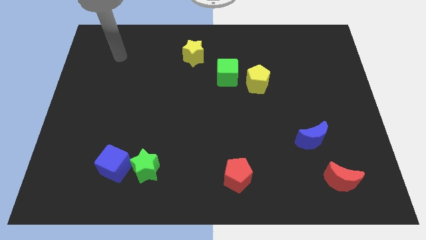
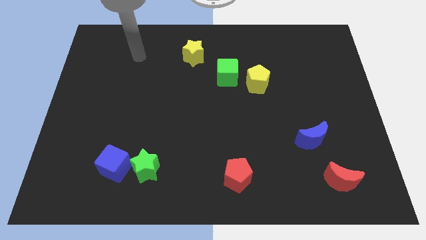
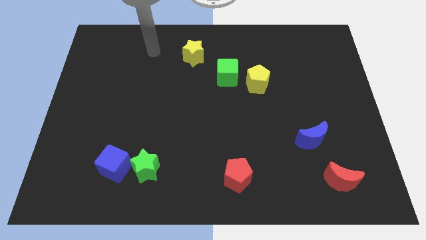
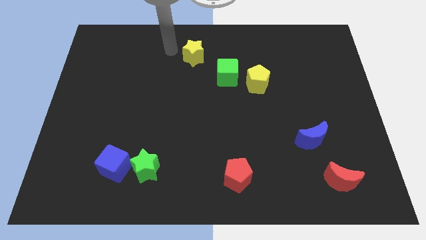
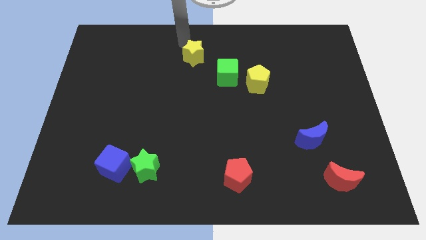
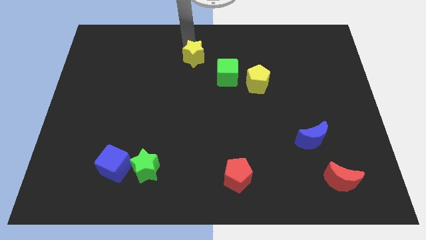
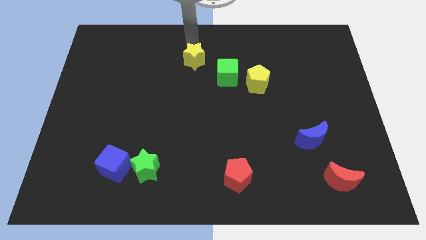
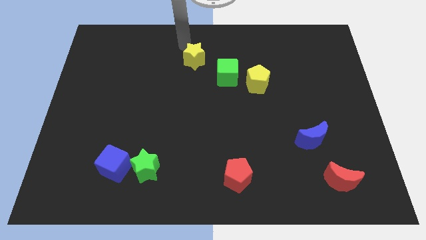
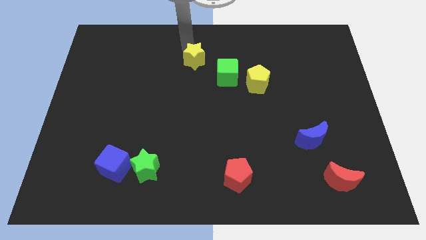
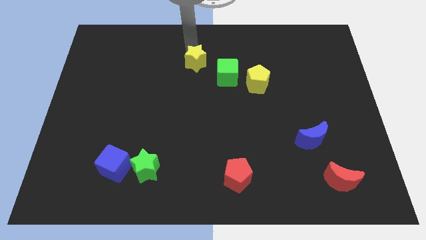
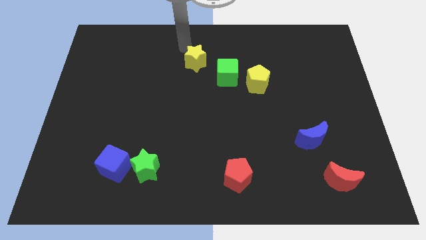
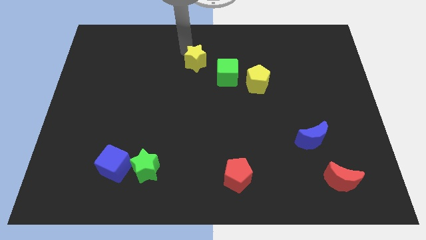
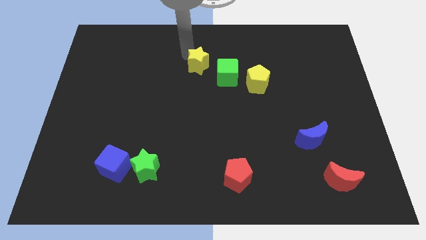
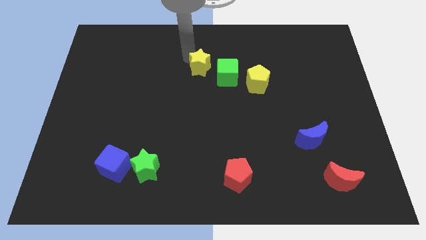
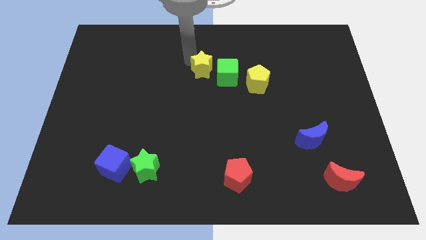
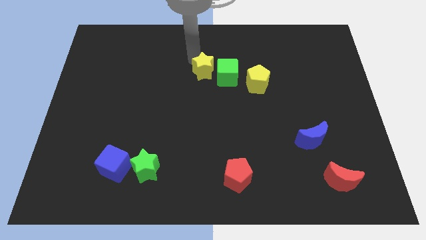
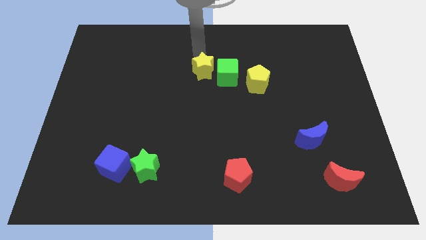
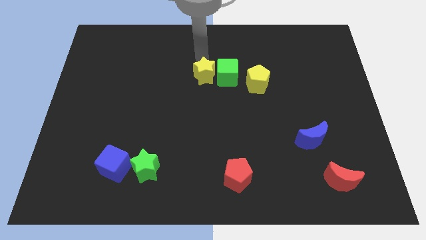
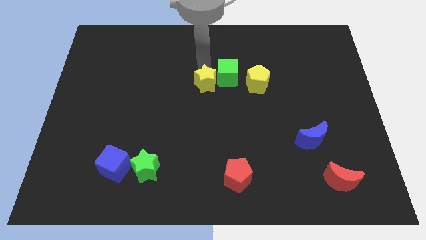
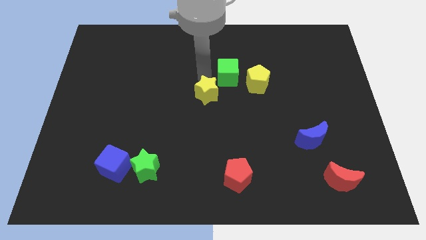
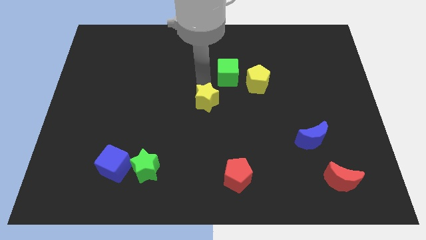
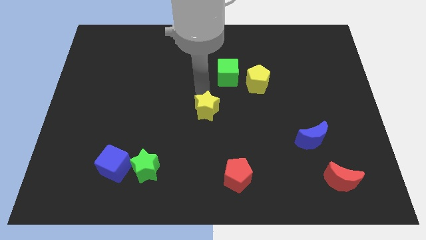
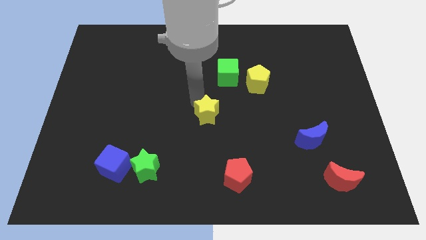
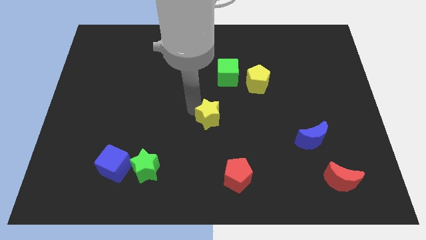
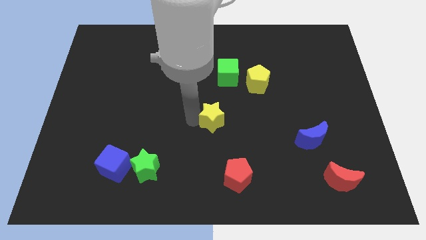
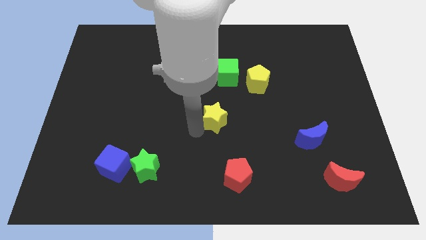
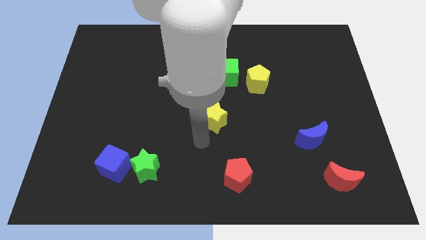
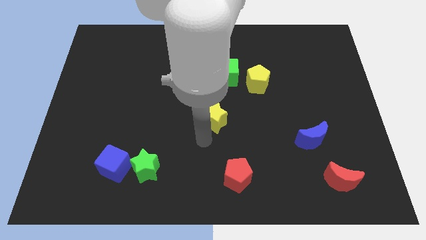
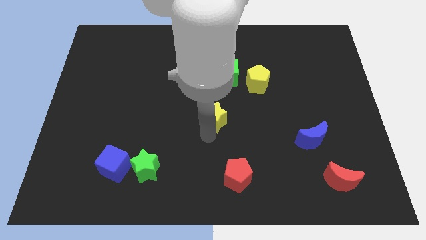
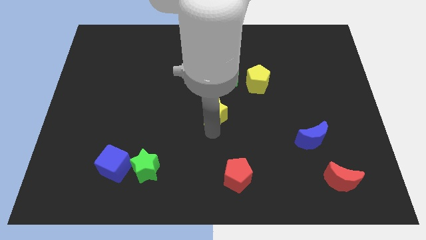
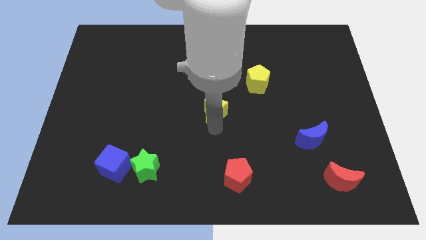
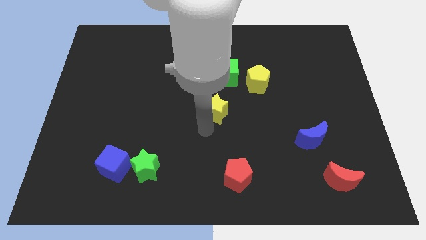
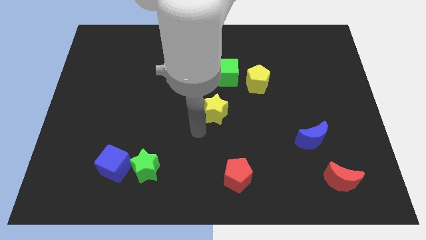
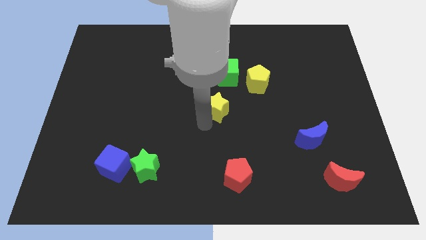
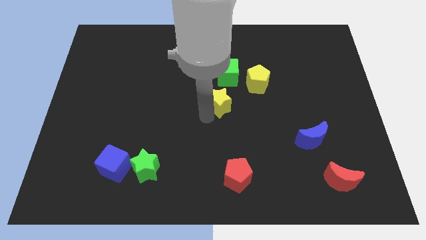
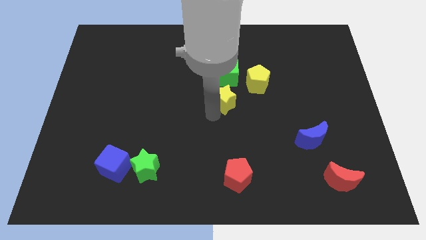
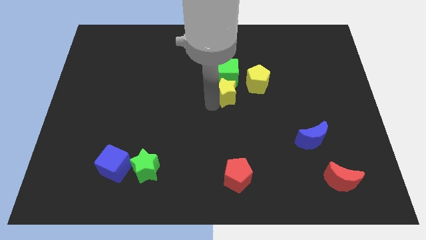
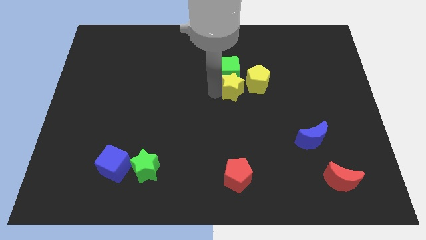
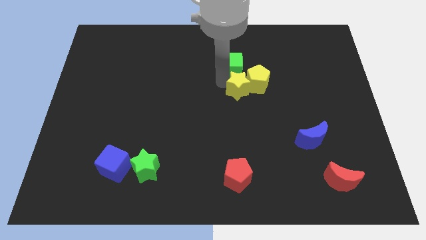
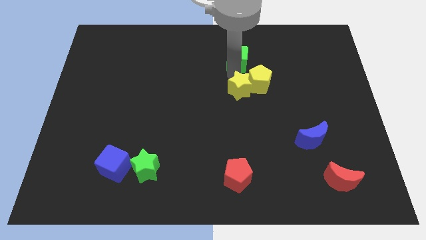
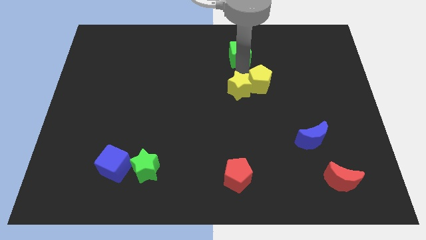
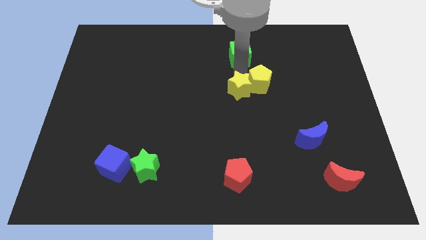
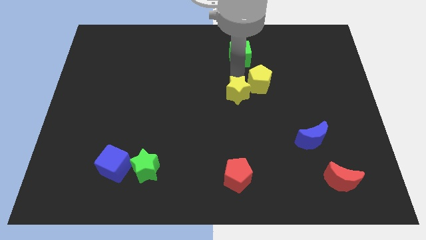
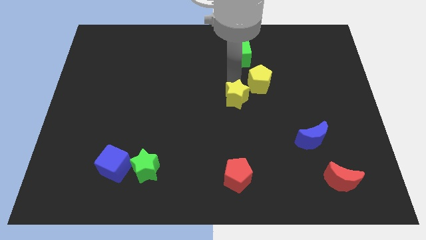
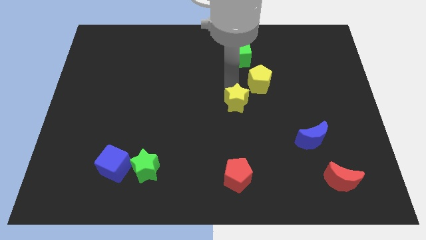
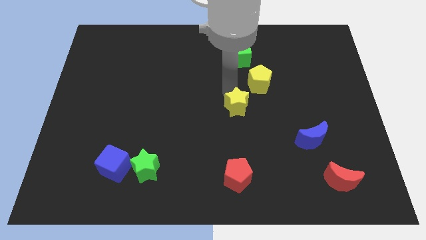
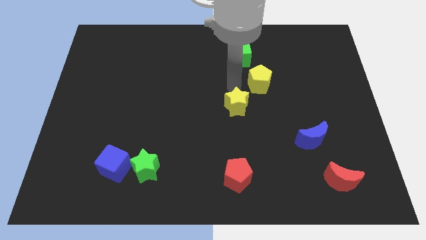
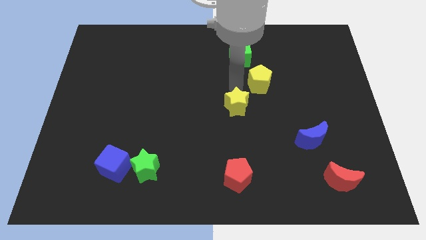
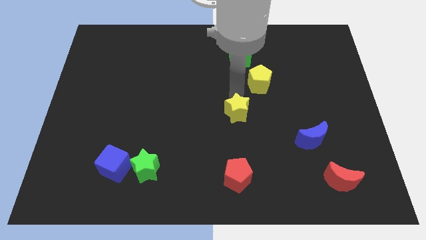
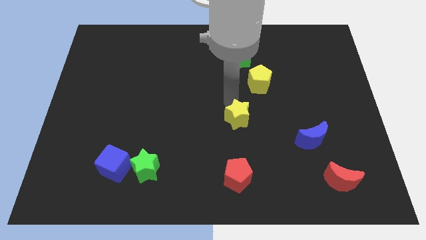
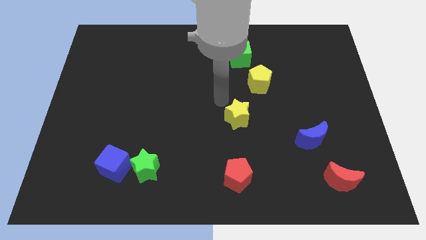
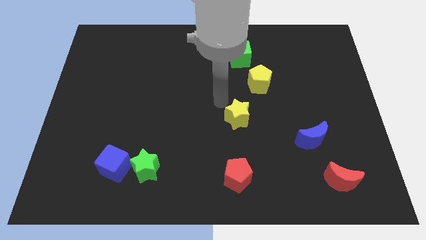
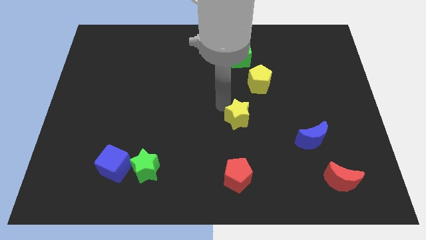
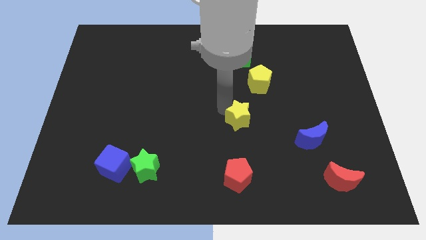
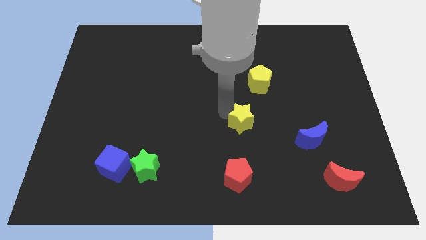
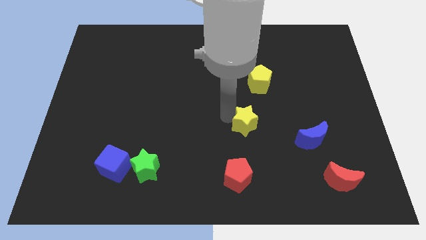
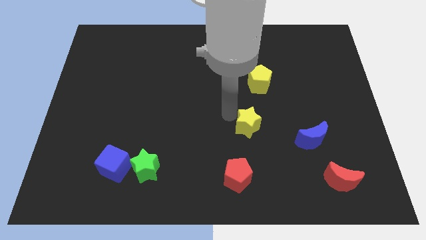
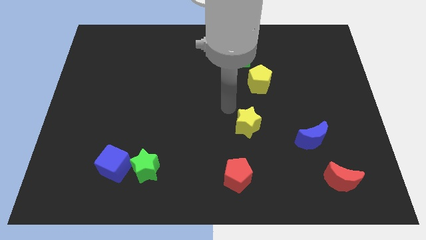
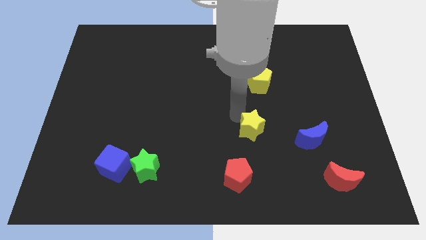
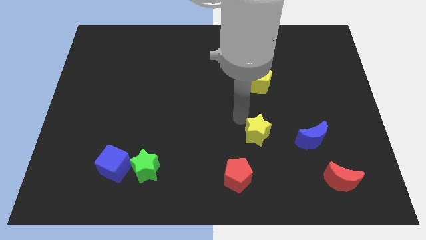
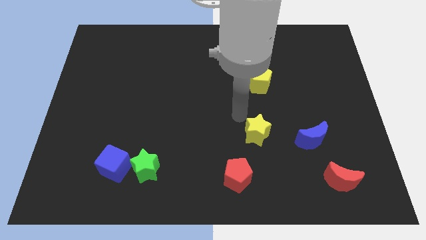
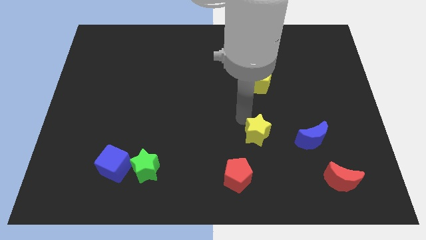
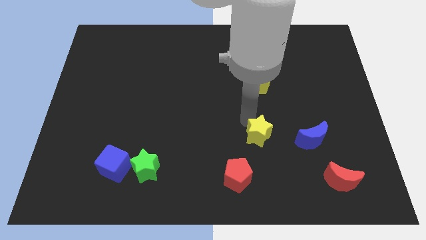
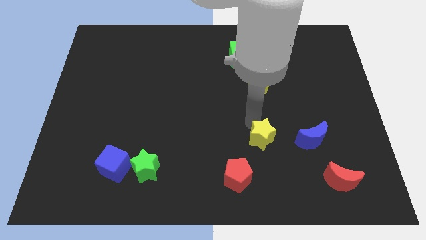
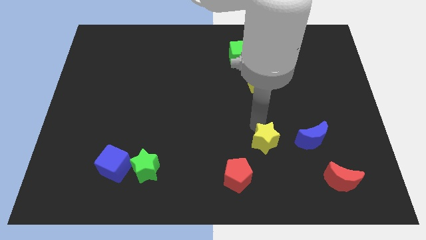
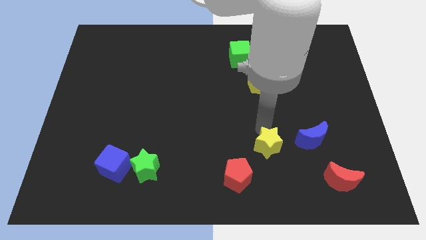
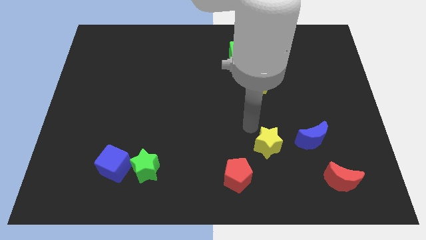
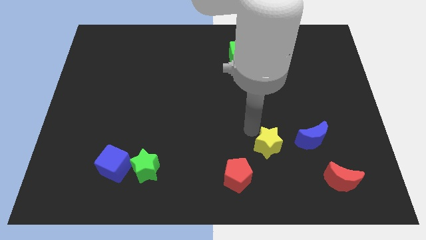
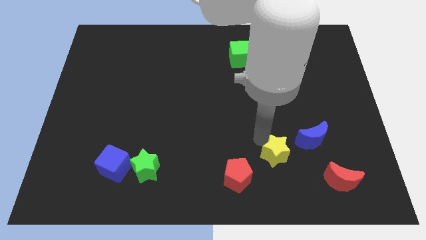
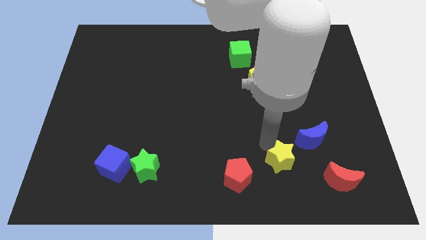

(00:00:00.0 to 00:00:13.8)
push the yellow star to the right of the red pentagon
